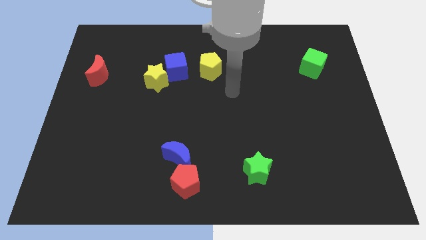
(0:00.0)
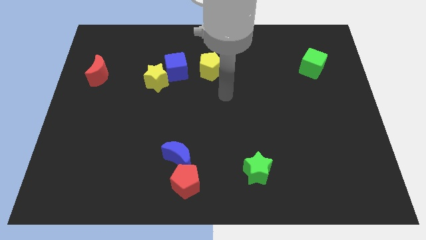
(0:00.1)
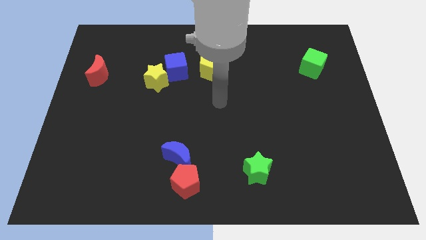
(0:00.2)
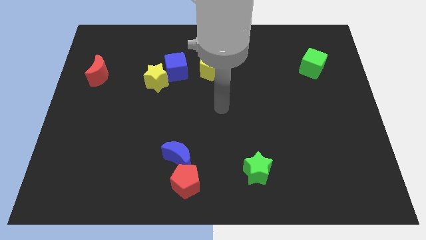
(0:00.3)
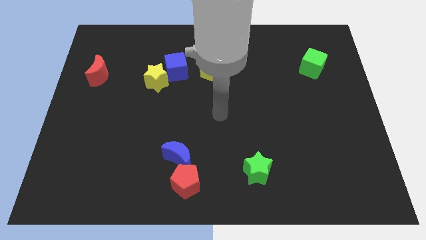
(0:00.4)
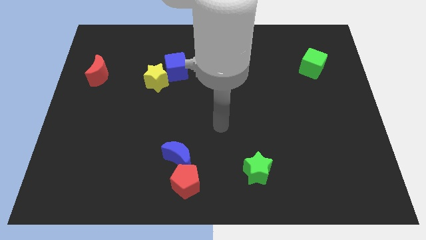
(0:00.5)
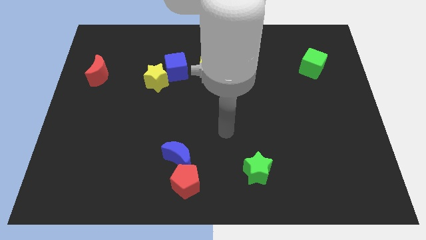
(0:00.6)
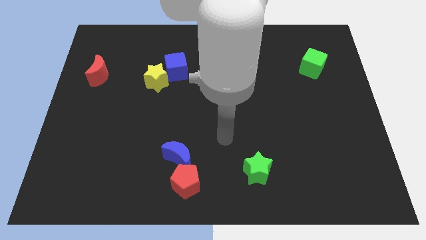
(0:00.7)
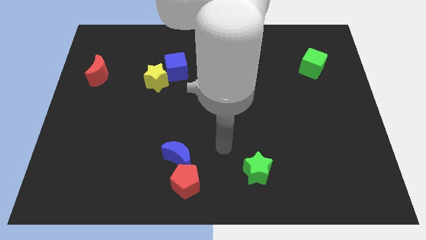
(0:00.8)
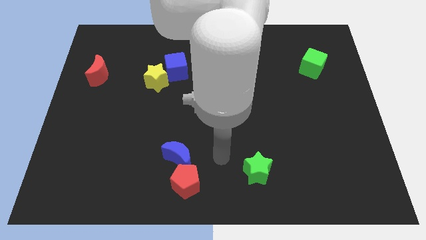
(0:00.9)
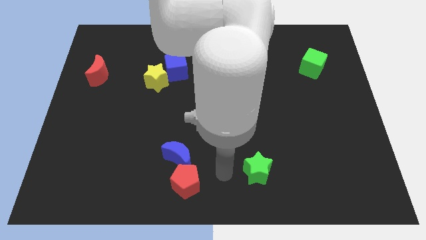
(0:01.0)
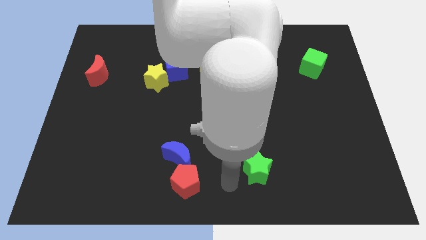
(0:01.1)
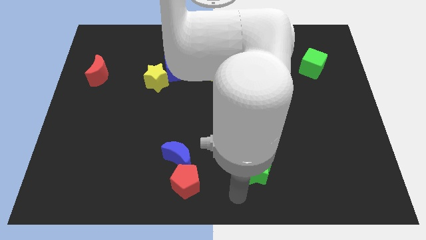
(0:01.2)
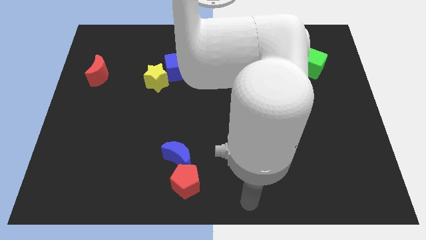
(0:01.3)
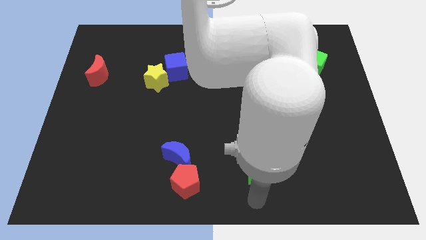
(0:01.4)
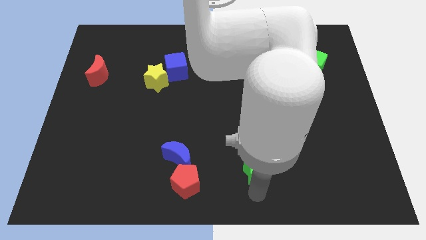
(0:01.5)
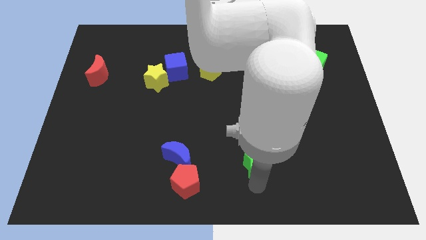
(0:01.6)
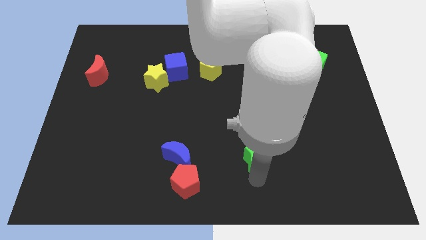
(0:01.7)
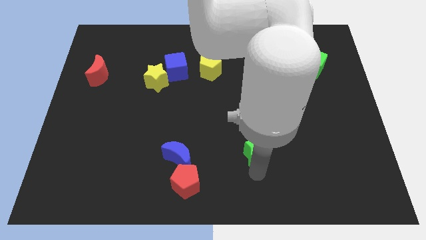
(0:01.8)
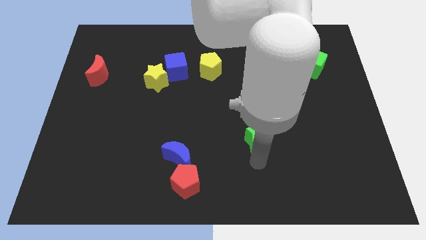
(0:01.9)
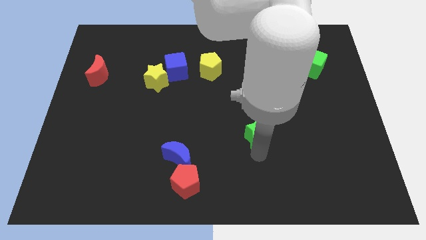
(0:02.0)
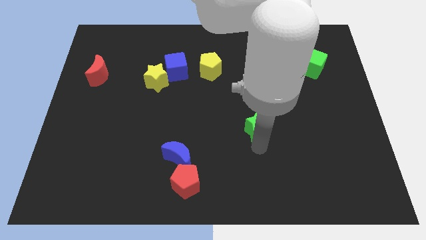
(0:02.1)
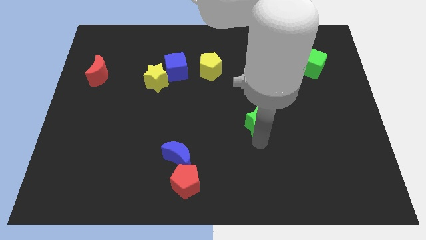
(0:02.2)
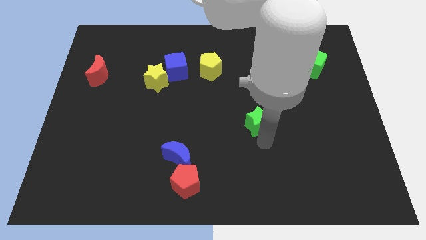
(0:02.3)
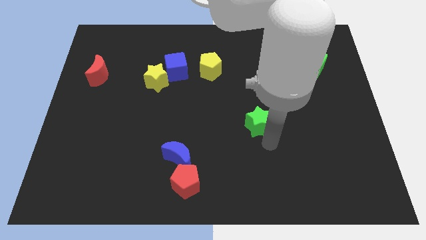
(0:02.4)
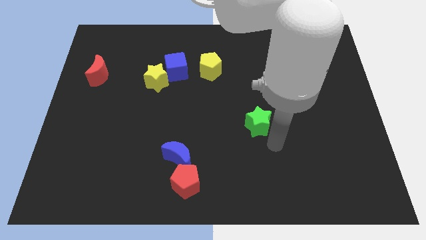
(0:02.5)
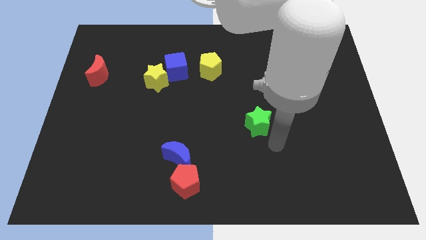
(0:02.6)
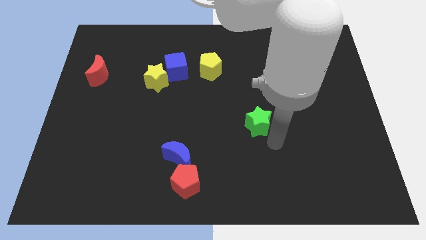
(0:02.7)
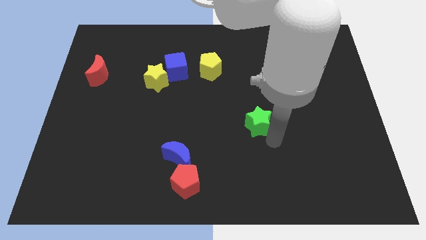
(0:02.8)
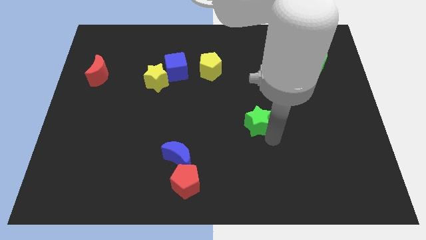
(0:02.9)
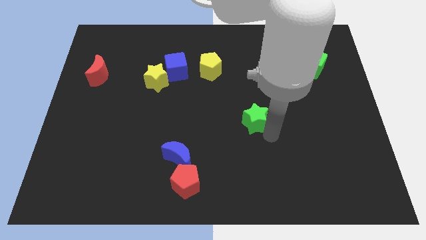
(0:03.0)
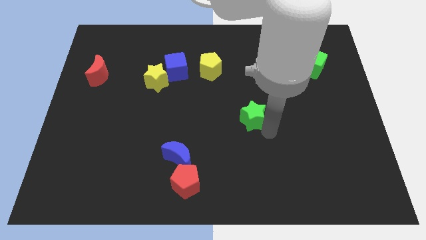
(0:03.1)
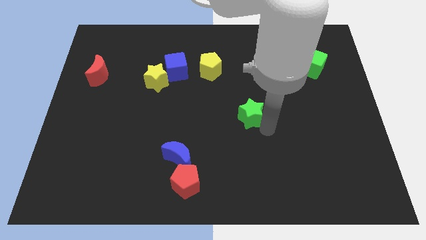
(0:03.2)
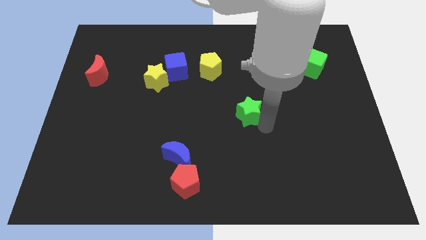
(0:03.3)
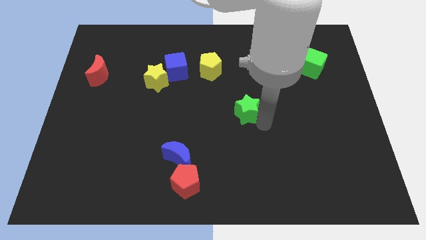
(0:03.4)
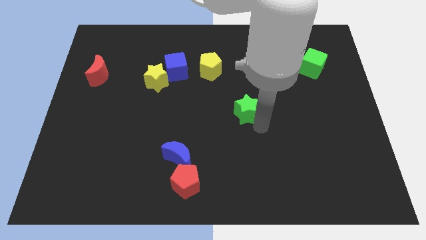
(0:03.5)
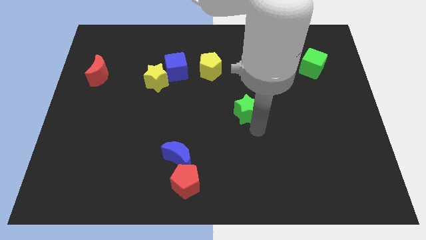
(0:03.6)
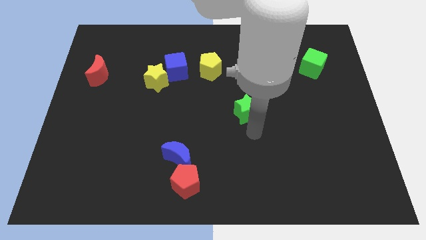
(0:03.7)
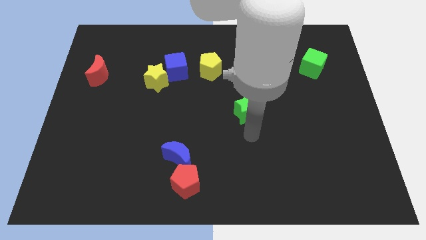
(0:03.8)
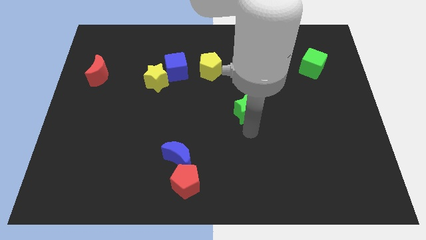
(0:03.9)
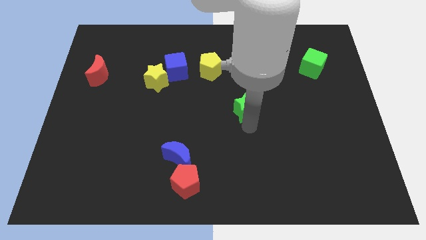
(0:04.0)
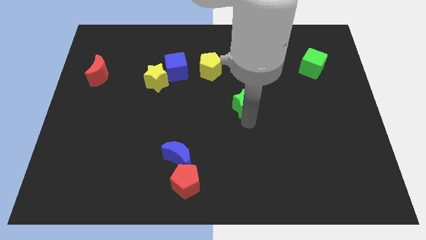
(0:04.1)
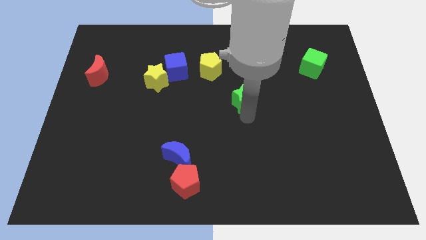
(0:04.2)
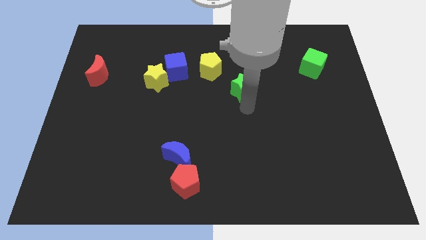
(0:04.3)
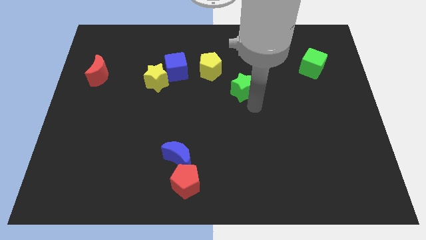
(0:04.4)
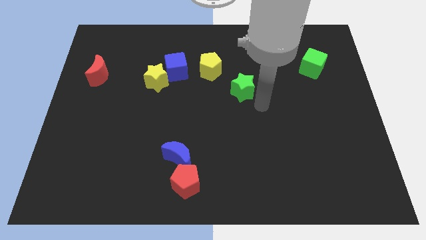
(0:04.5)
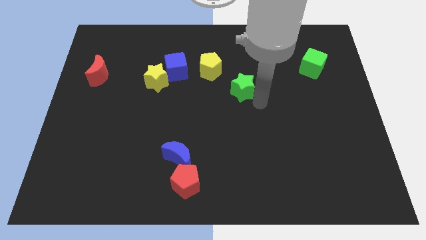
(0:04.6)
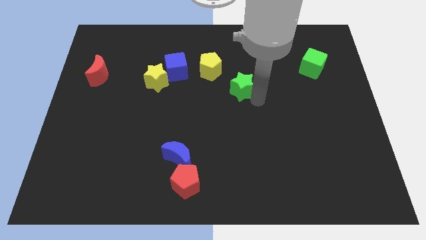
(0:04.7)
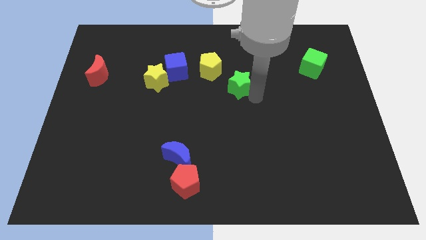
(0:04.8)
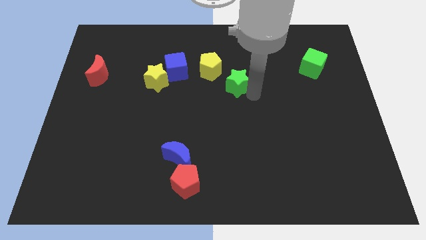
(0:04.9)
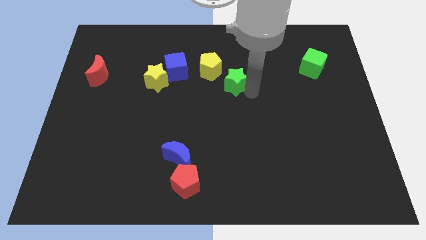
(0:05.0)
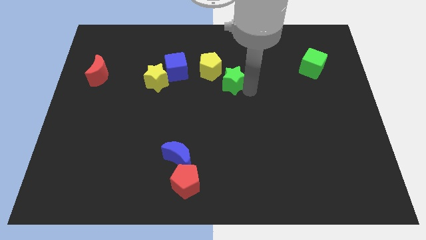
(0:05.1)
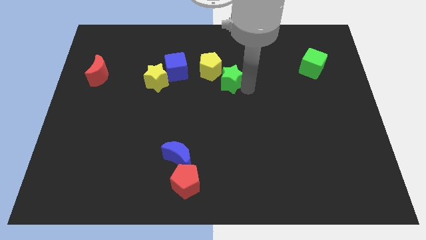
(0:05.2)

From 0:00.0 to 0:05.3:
move the green star to the right of the blue cube

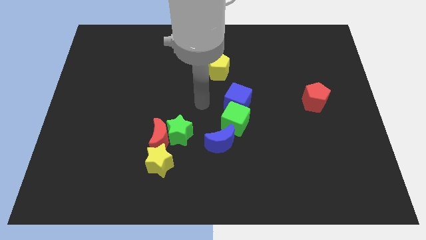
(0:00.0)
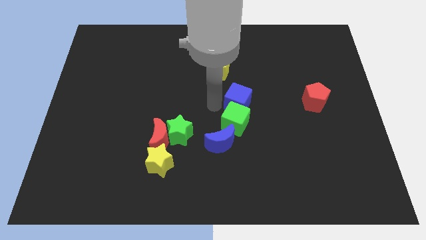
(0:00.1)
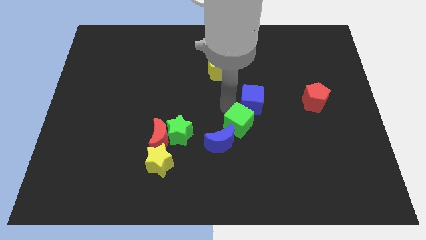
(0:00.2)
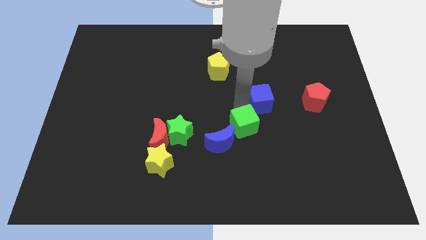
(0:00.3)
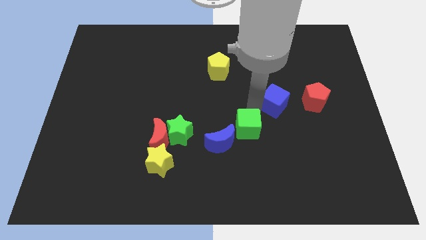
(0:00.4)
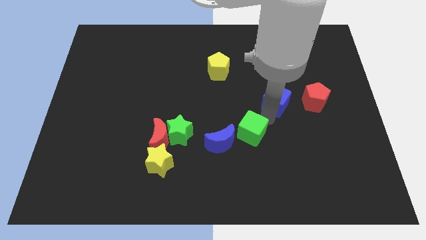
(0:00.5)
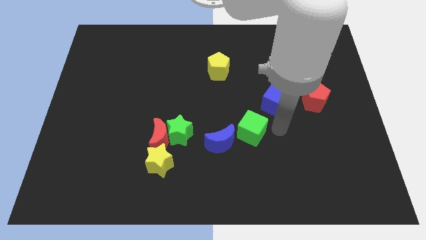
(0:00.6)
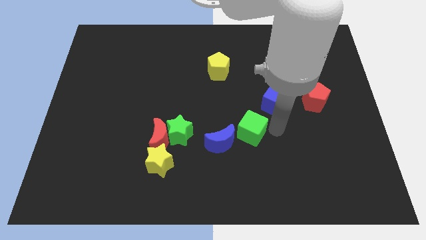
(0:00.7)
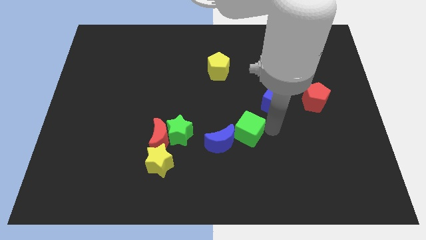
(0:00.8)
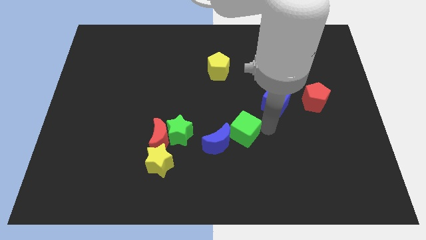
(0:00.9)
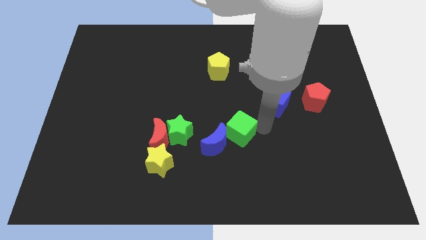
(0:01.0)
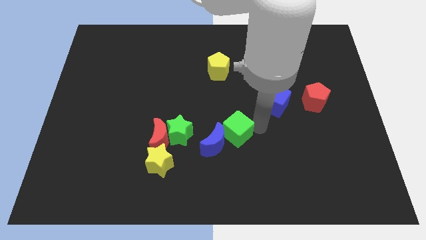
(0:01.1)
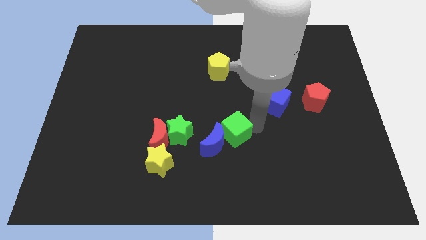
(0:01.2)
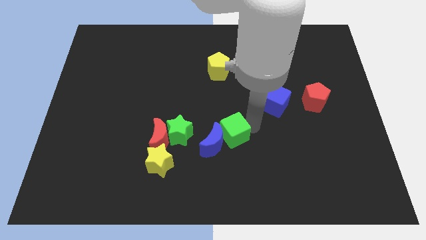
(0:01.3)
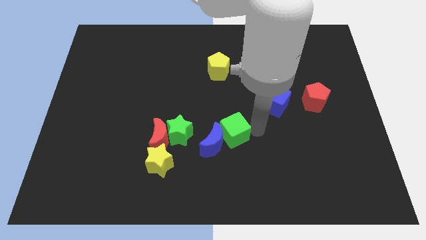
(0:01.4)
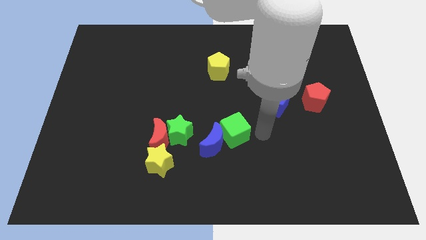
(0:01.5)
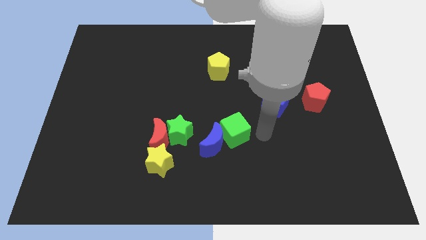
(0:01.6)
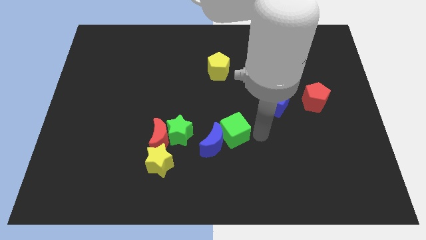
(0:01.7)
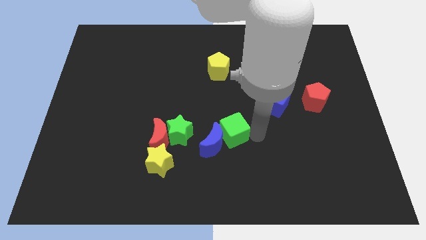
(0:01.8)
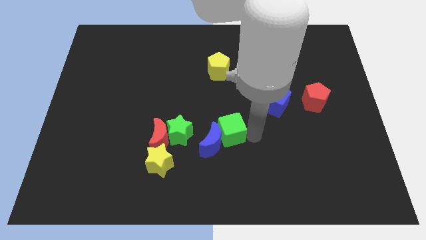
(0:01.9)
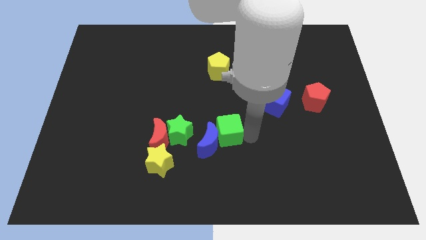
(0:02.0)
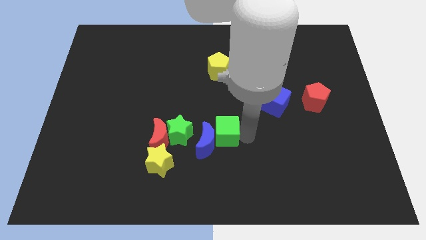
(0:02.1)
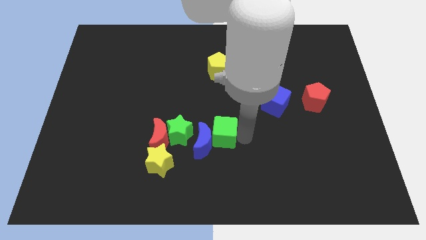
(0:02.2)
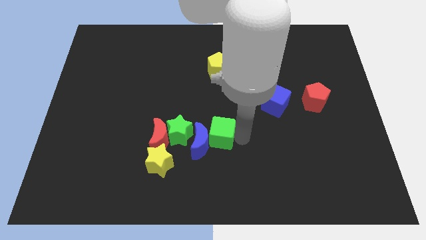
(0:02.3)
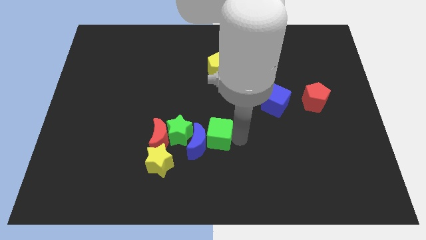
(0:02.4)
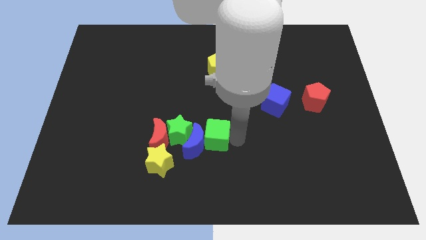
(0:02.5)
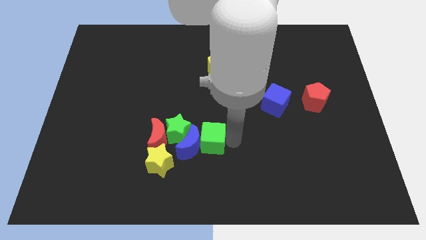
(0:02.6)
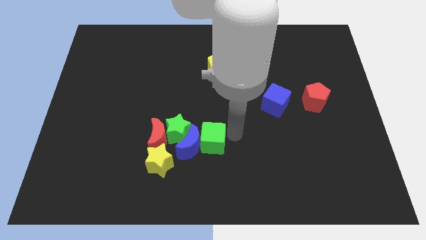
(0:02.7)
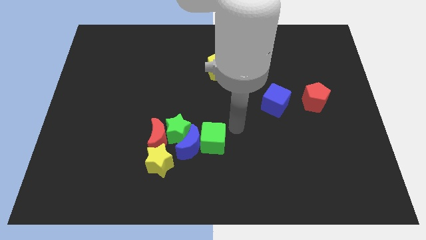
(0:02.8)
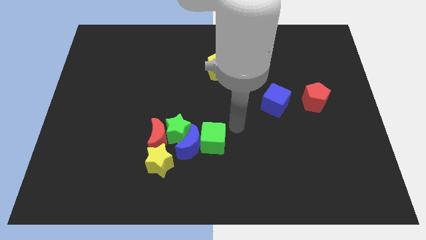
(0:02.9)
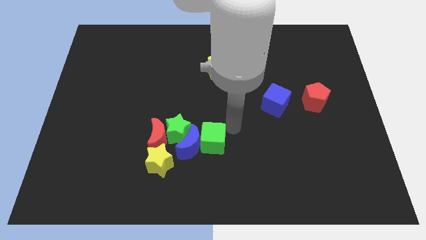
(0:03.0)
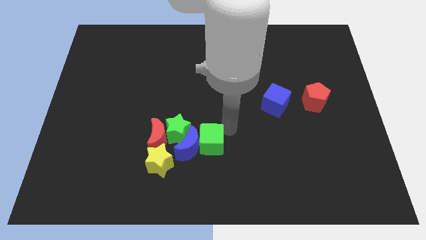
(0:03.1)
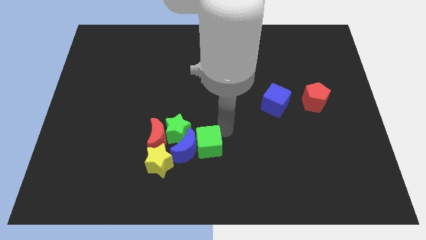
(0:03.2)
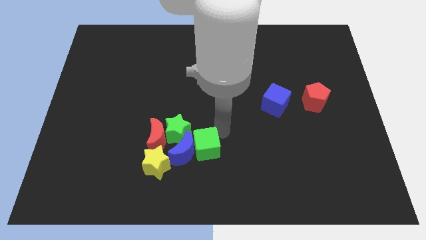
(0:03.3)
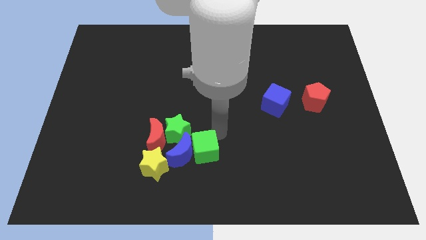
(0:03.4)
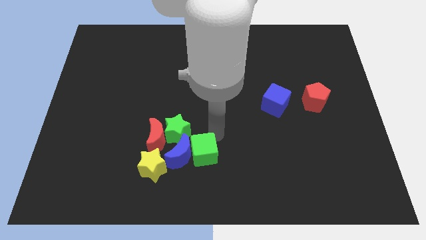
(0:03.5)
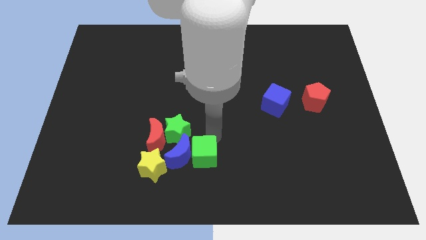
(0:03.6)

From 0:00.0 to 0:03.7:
put the green cube diagonally down and to the right of the red moon
